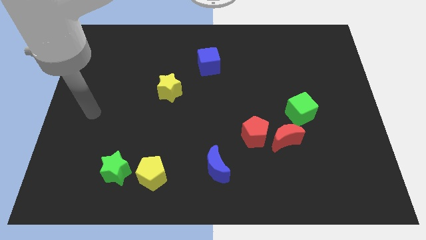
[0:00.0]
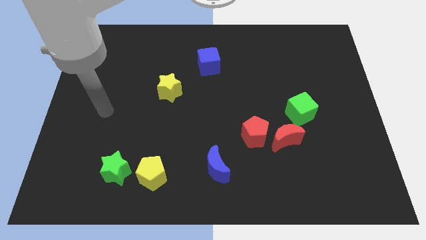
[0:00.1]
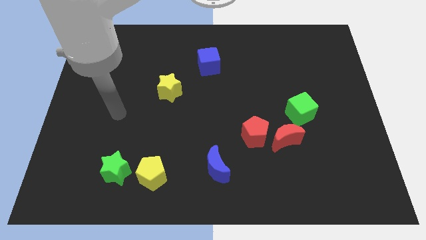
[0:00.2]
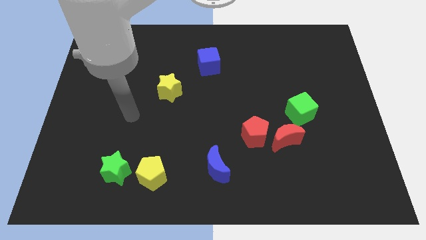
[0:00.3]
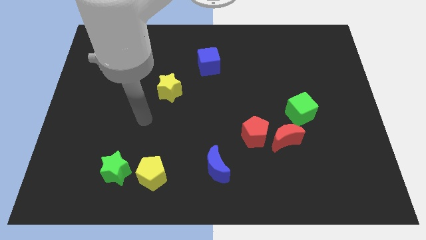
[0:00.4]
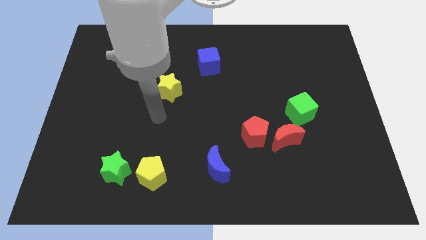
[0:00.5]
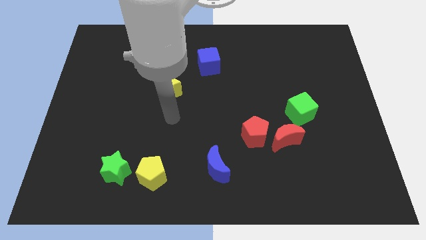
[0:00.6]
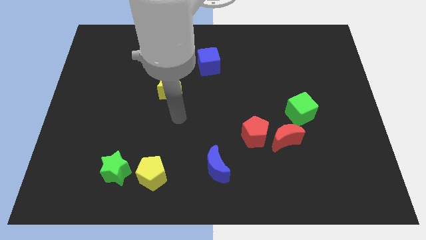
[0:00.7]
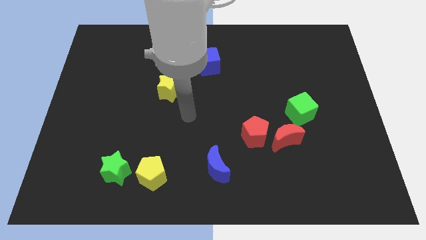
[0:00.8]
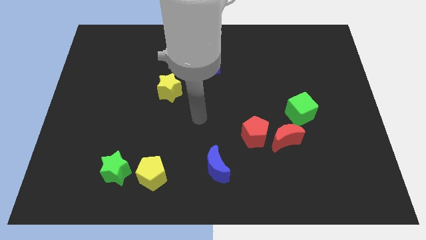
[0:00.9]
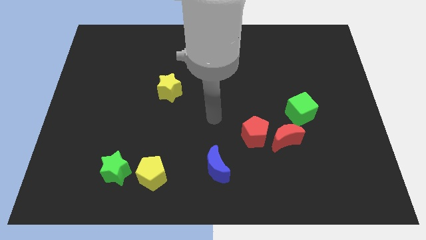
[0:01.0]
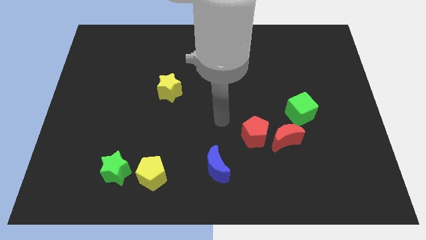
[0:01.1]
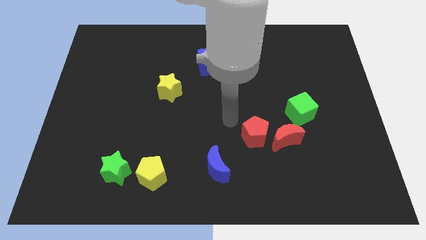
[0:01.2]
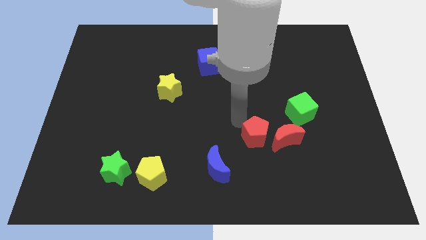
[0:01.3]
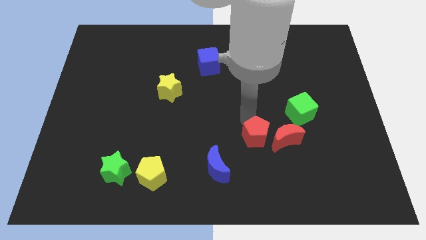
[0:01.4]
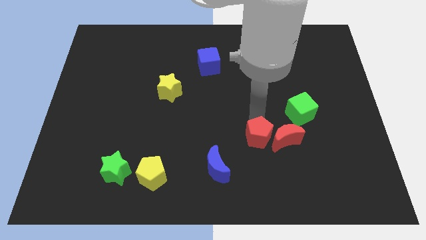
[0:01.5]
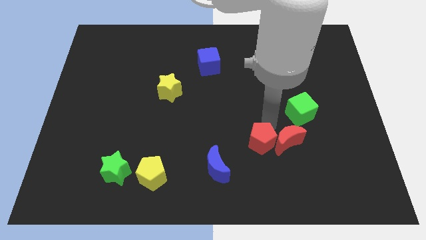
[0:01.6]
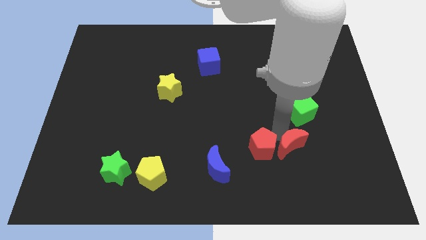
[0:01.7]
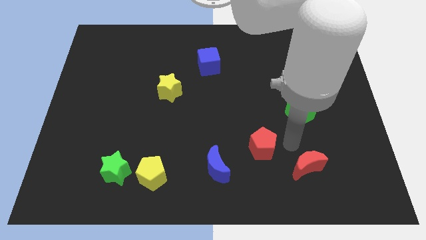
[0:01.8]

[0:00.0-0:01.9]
separate the red pentagon from the red moon

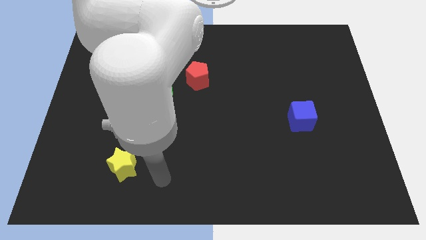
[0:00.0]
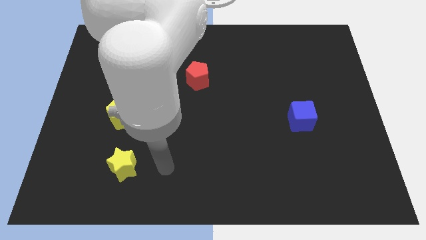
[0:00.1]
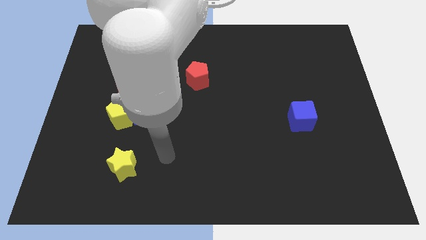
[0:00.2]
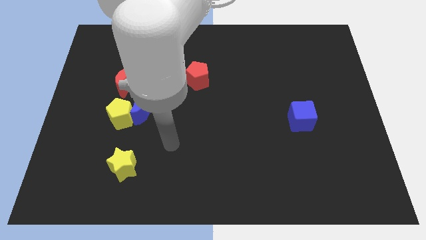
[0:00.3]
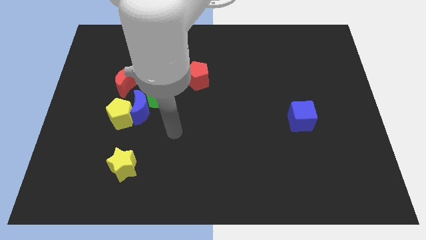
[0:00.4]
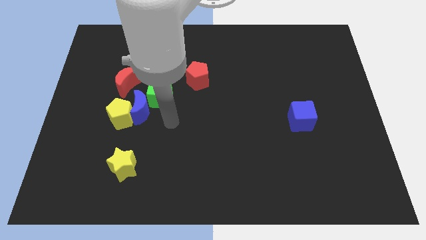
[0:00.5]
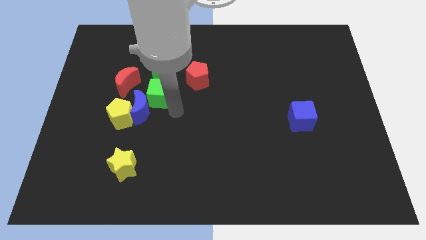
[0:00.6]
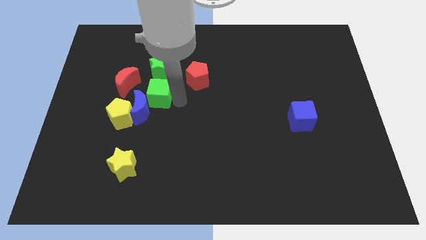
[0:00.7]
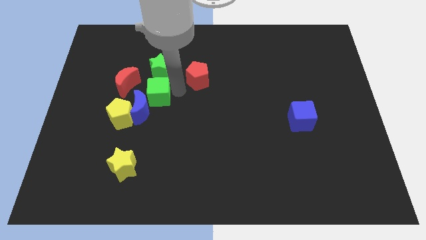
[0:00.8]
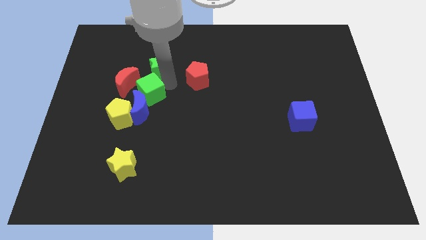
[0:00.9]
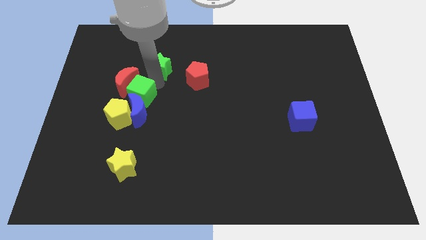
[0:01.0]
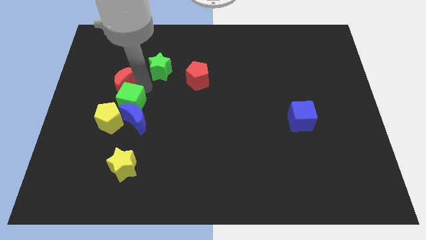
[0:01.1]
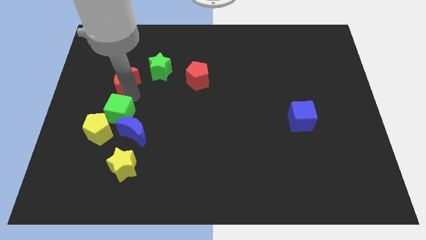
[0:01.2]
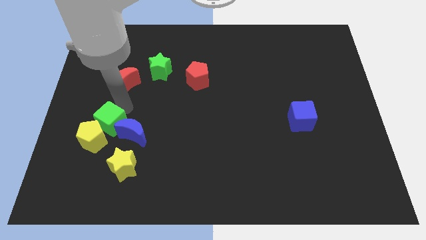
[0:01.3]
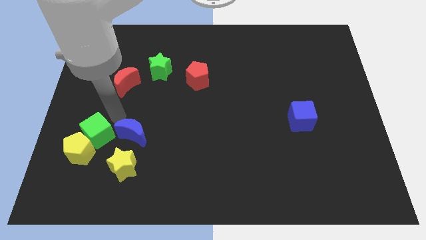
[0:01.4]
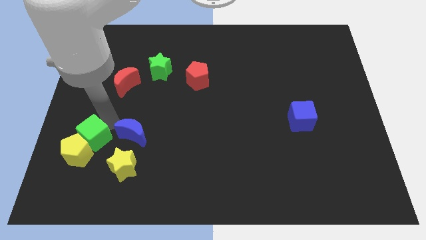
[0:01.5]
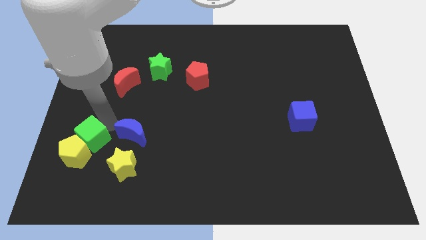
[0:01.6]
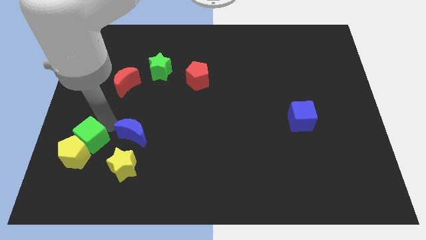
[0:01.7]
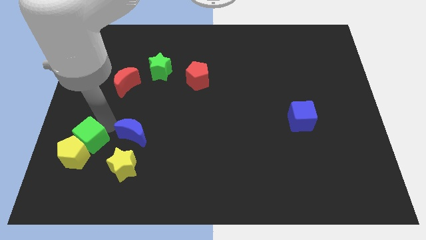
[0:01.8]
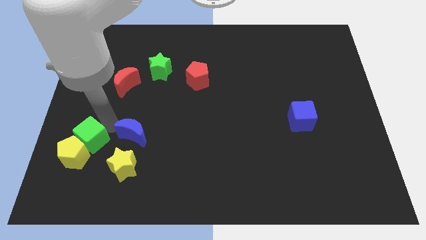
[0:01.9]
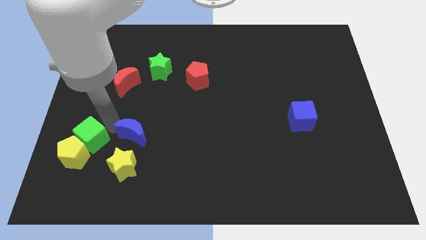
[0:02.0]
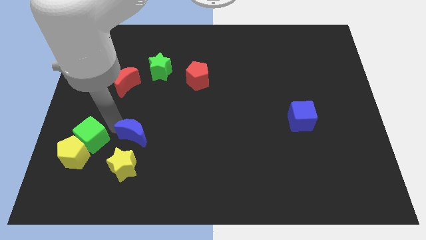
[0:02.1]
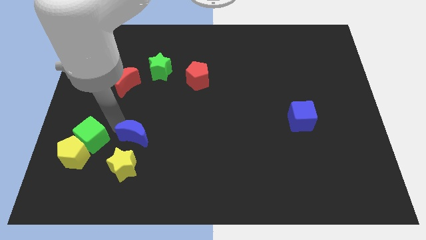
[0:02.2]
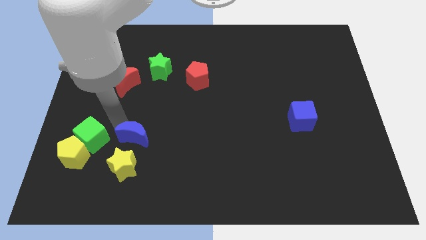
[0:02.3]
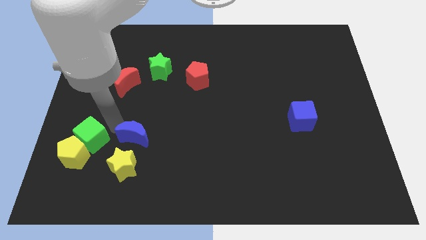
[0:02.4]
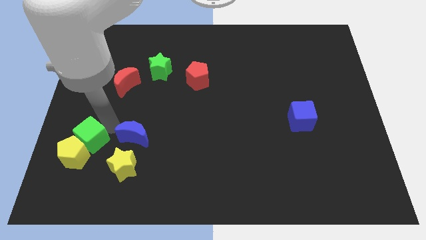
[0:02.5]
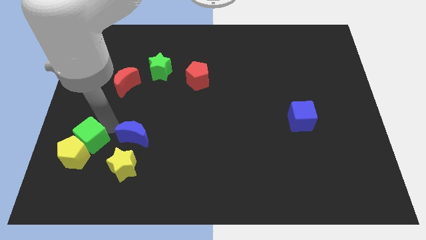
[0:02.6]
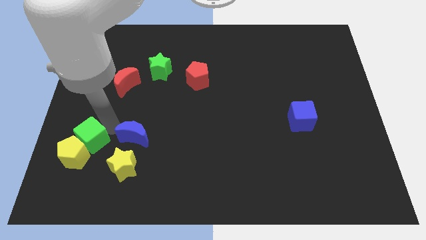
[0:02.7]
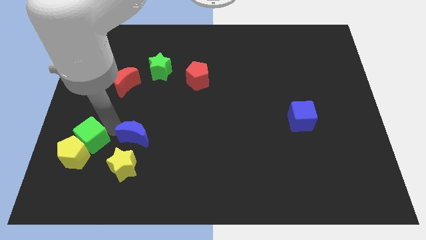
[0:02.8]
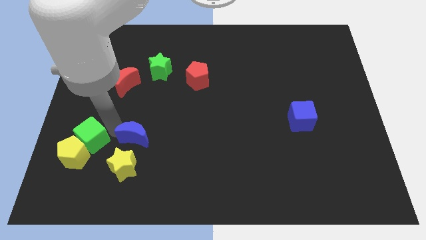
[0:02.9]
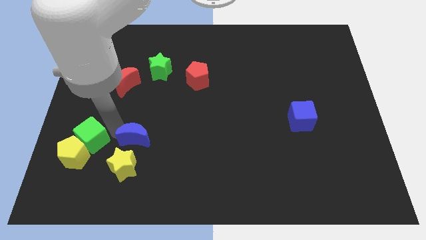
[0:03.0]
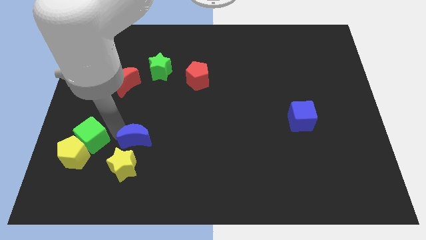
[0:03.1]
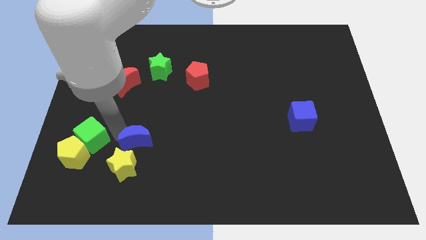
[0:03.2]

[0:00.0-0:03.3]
move the blue moon away from the yellow pentagon, green cube, and red moon

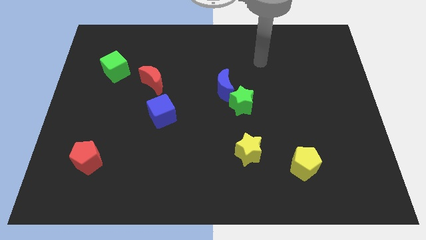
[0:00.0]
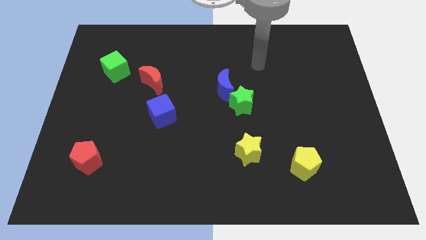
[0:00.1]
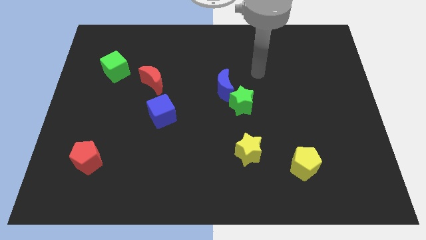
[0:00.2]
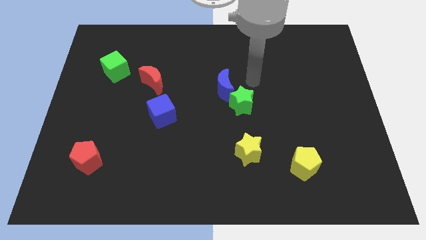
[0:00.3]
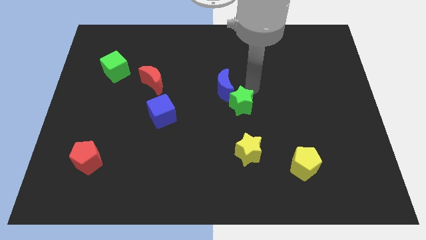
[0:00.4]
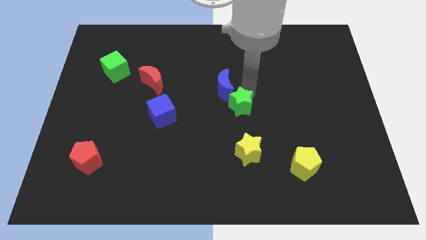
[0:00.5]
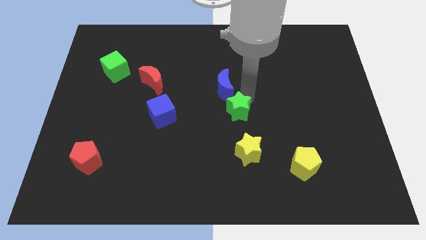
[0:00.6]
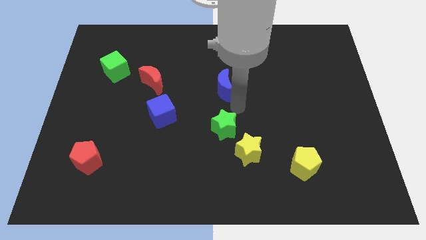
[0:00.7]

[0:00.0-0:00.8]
separate the blue moon from the green star

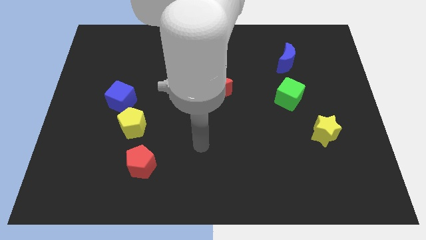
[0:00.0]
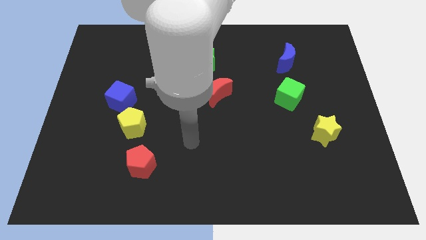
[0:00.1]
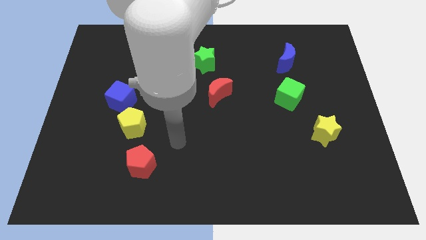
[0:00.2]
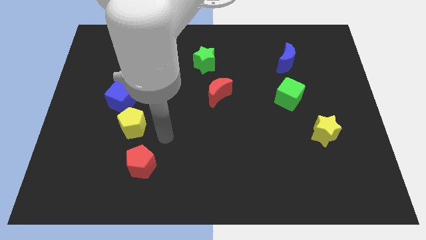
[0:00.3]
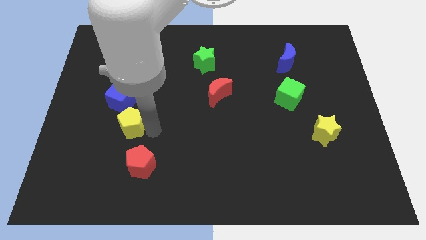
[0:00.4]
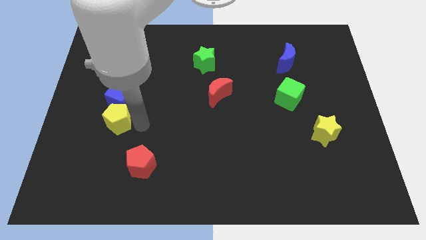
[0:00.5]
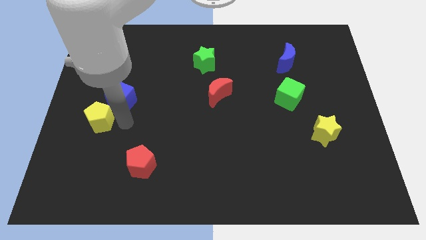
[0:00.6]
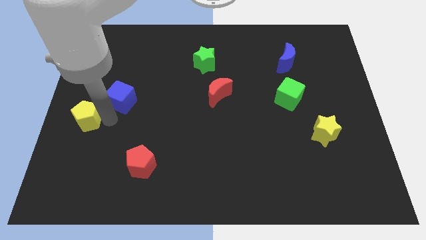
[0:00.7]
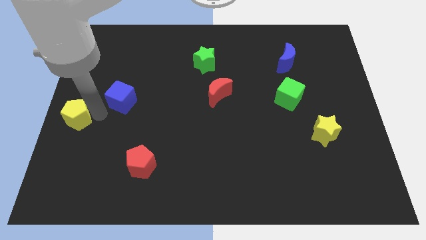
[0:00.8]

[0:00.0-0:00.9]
pull the blue cube apart from the yellow pentagon

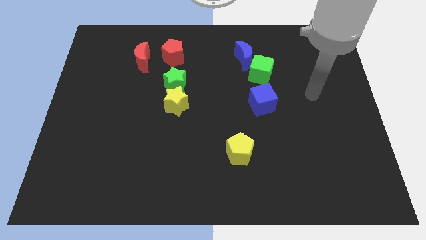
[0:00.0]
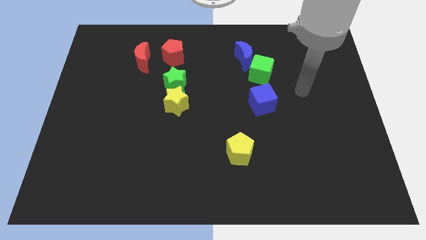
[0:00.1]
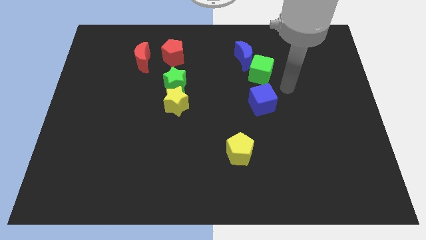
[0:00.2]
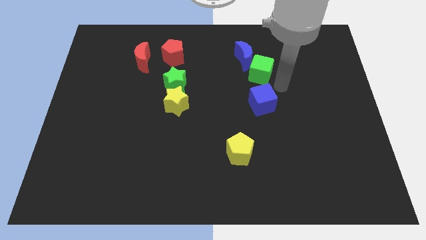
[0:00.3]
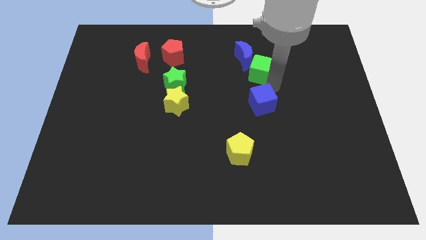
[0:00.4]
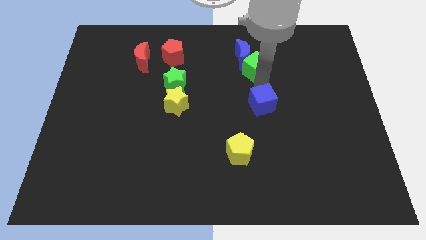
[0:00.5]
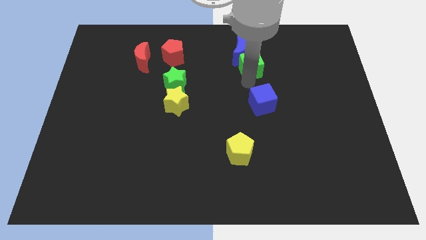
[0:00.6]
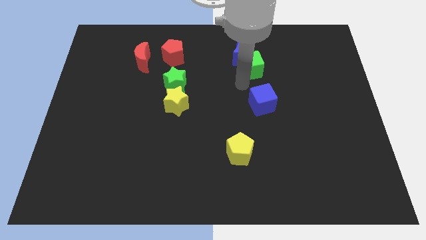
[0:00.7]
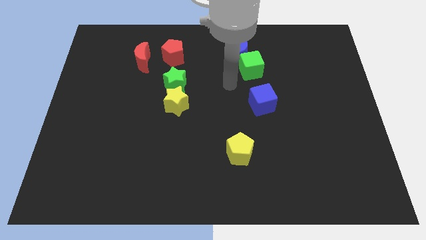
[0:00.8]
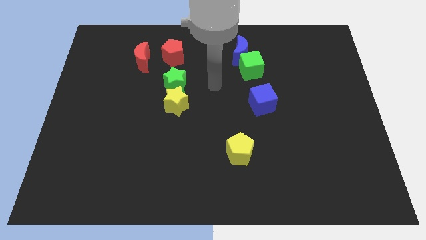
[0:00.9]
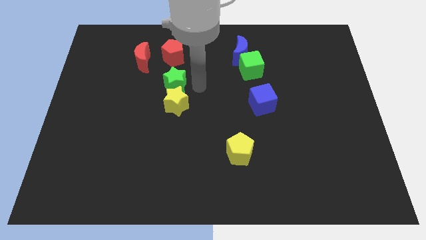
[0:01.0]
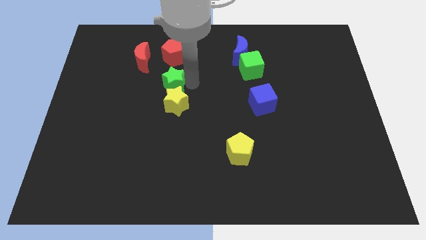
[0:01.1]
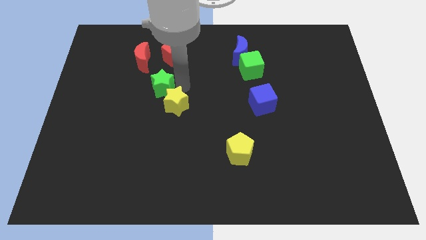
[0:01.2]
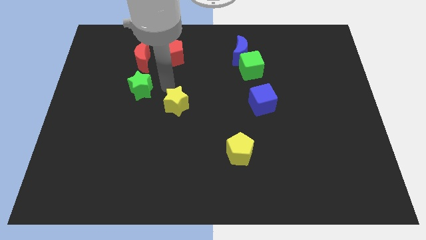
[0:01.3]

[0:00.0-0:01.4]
pull the yellow star apart from the green star

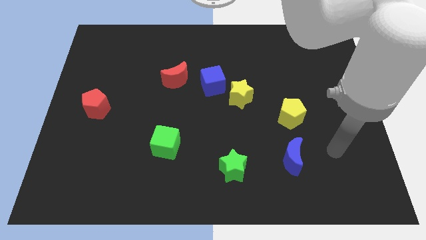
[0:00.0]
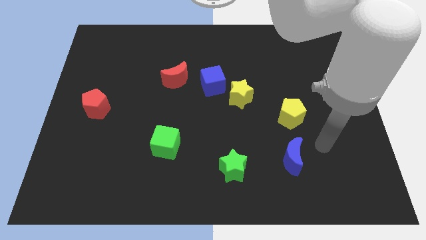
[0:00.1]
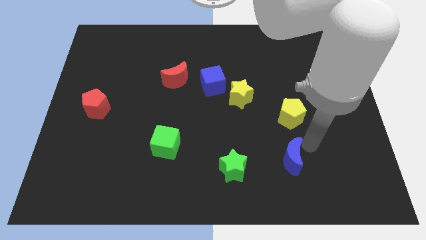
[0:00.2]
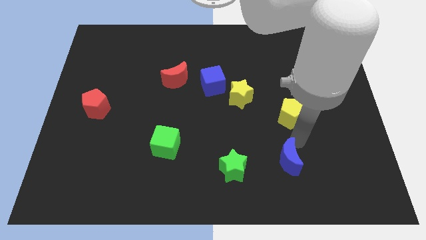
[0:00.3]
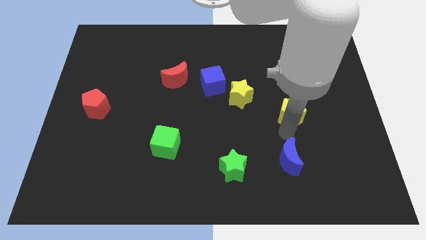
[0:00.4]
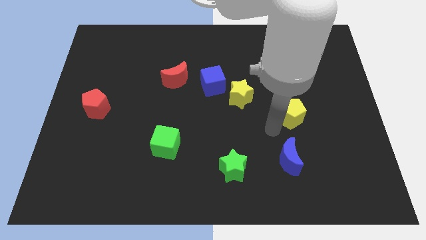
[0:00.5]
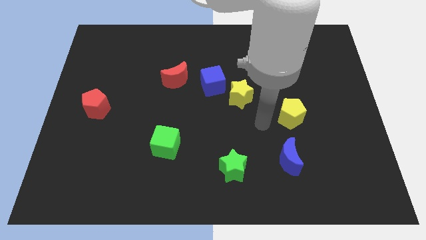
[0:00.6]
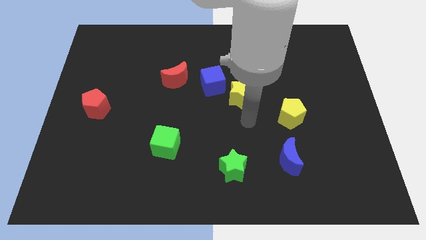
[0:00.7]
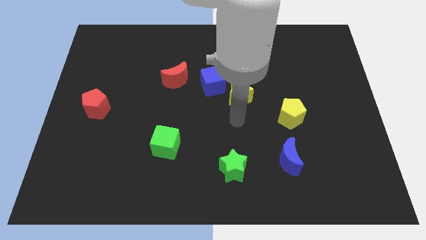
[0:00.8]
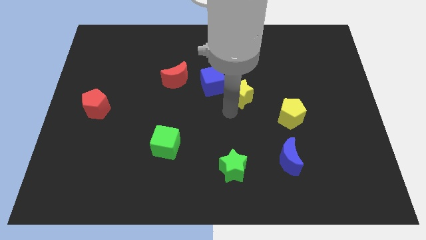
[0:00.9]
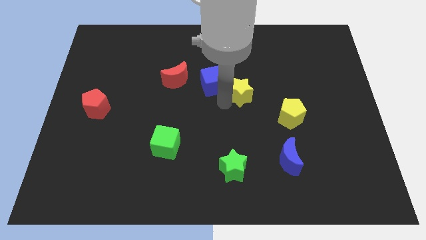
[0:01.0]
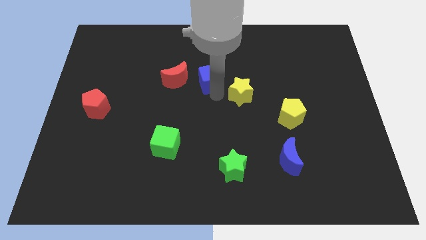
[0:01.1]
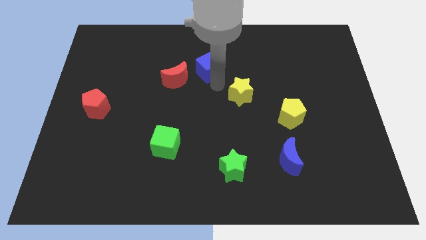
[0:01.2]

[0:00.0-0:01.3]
pull the yellow star apart from the blue cube
